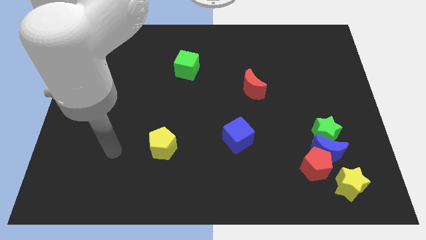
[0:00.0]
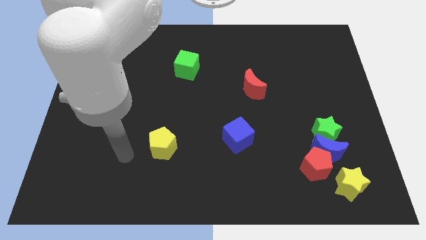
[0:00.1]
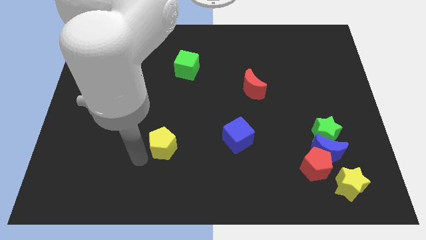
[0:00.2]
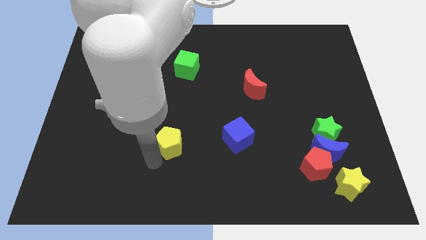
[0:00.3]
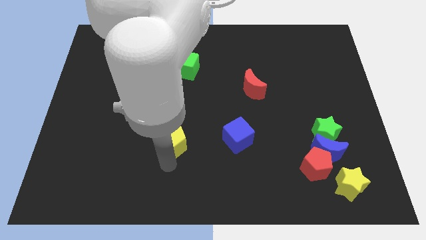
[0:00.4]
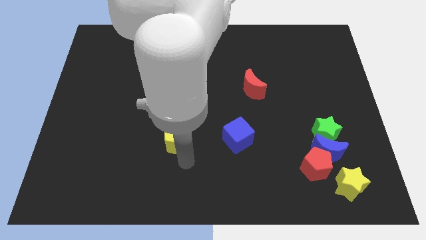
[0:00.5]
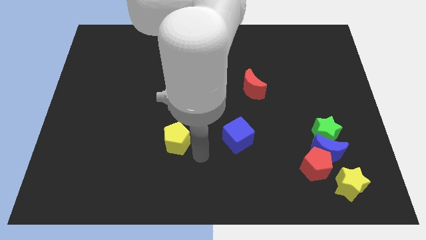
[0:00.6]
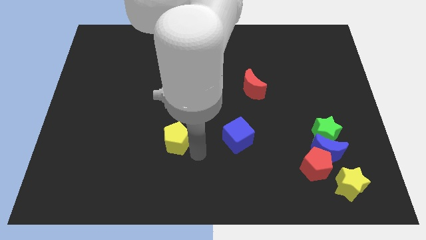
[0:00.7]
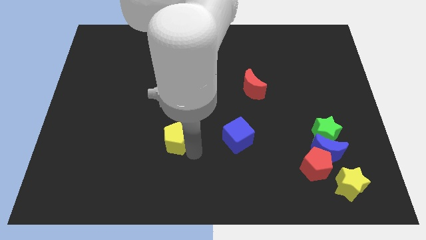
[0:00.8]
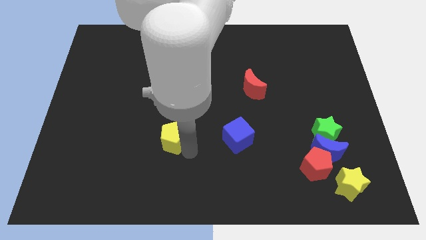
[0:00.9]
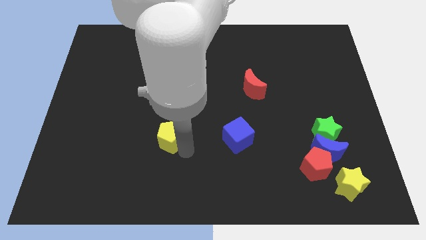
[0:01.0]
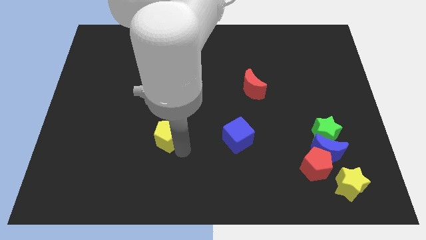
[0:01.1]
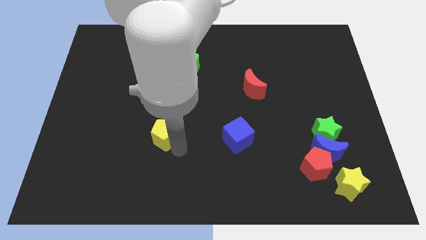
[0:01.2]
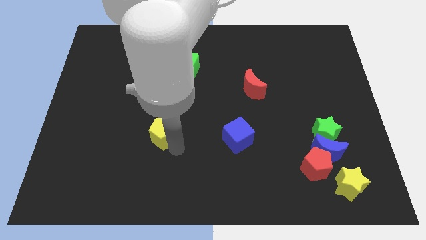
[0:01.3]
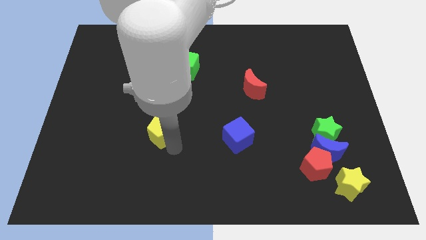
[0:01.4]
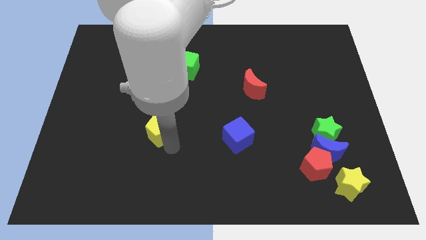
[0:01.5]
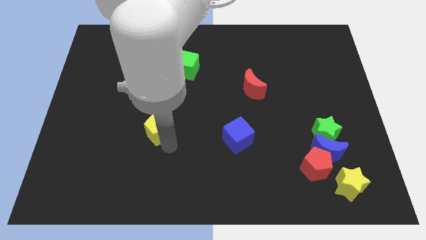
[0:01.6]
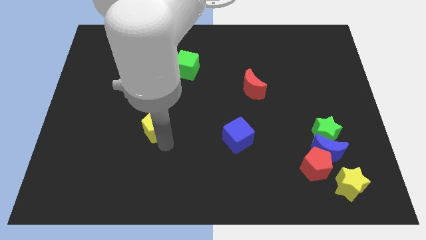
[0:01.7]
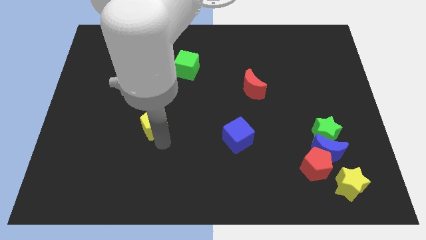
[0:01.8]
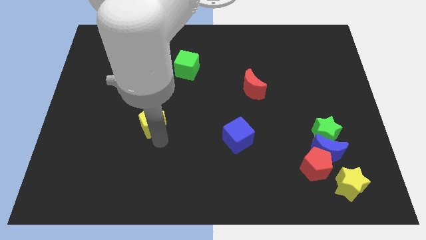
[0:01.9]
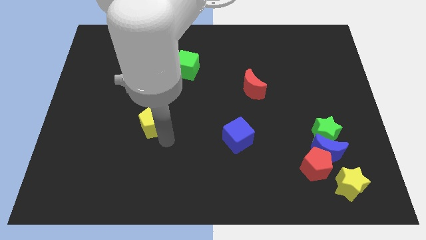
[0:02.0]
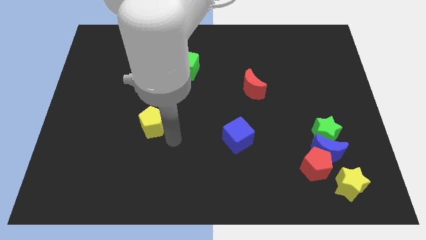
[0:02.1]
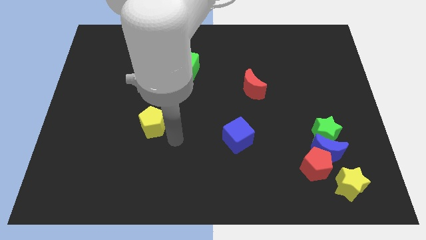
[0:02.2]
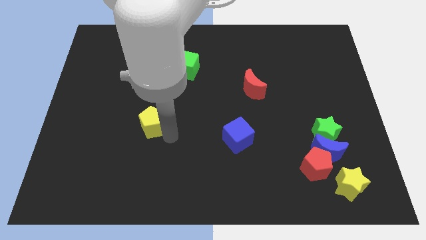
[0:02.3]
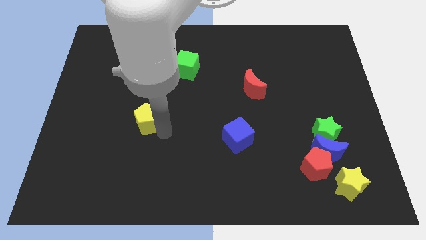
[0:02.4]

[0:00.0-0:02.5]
slightly push the yellow pentagon upwards and left

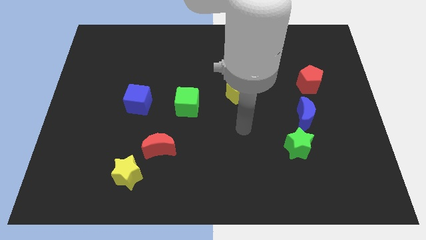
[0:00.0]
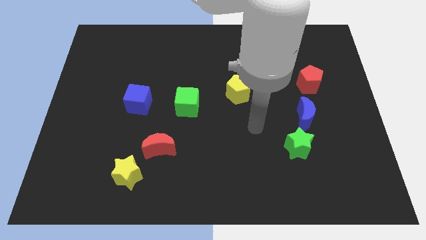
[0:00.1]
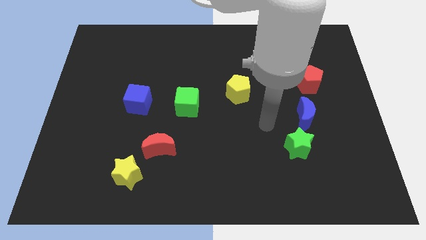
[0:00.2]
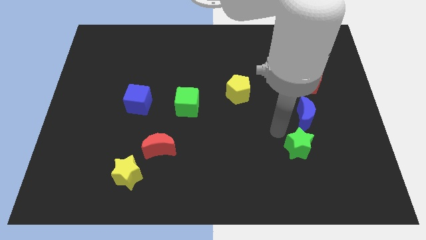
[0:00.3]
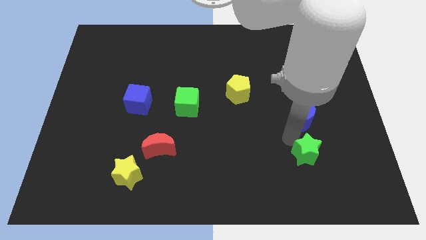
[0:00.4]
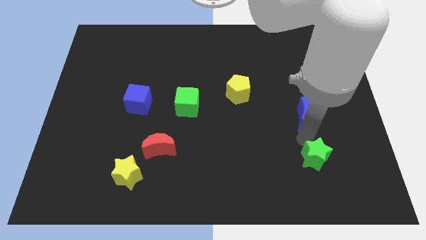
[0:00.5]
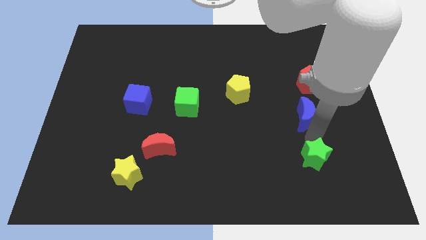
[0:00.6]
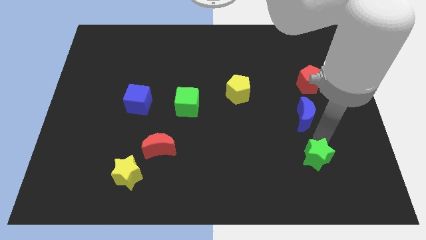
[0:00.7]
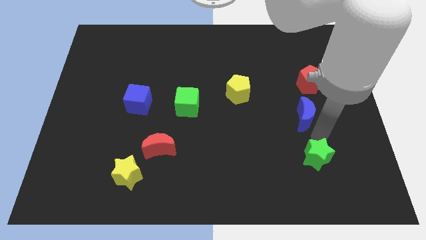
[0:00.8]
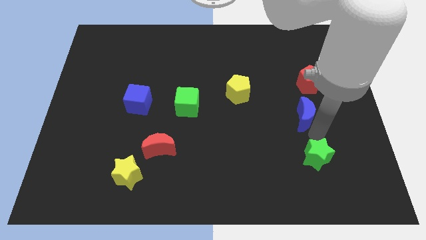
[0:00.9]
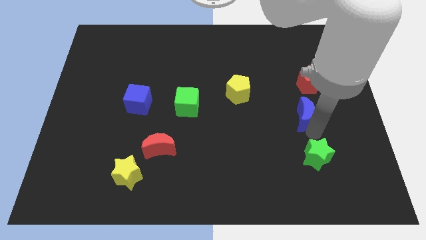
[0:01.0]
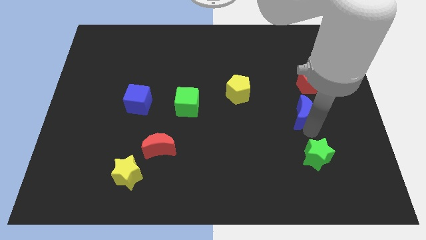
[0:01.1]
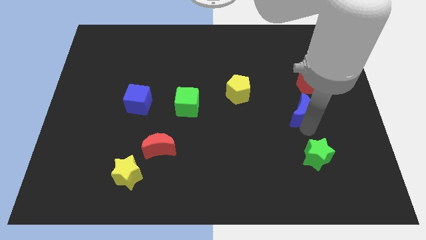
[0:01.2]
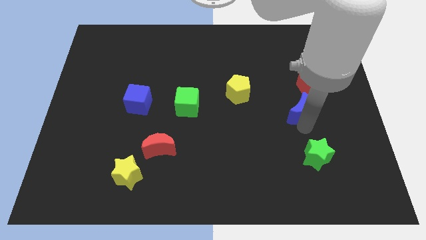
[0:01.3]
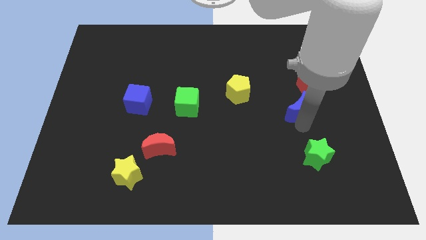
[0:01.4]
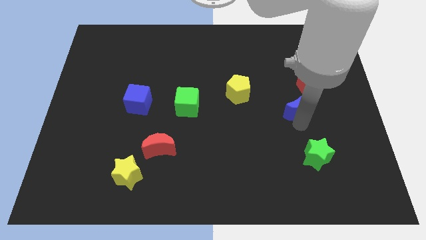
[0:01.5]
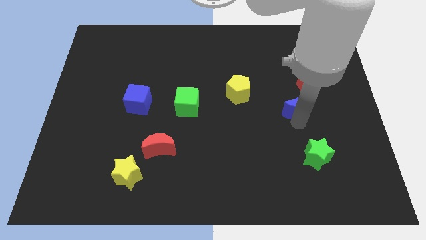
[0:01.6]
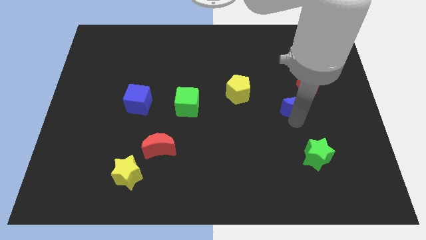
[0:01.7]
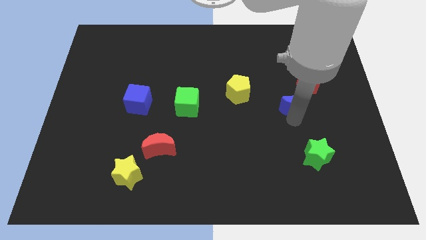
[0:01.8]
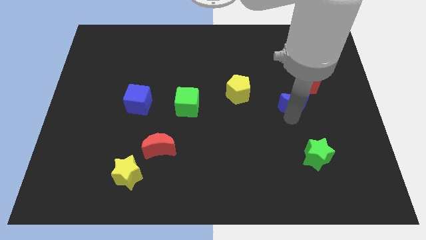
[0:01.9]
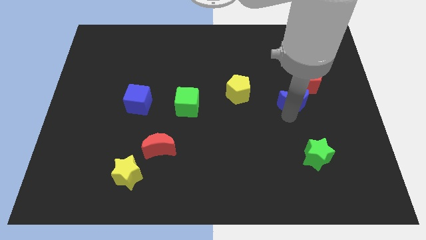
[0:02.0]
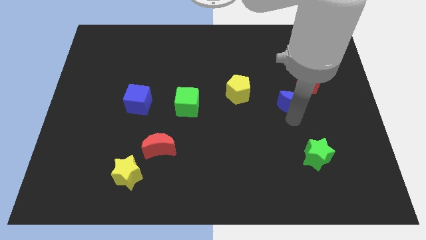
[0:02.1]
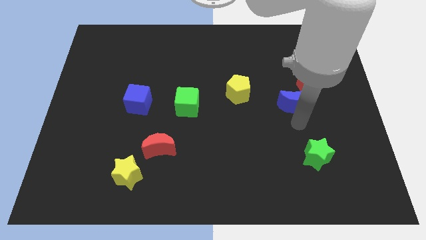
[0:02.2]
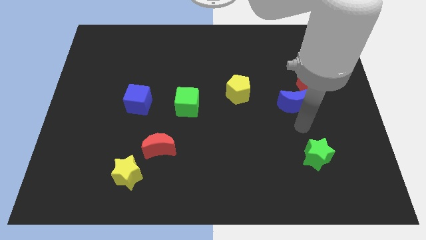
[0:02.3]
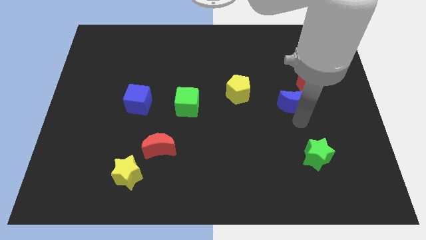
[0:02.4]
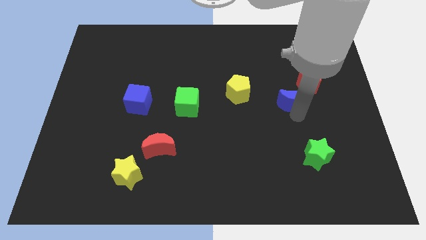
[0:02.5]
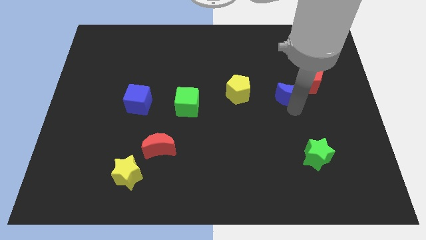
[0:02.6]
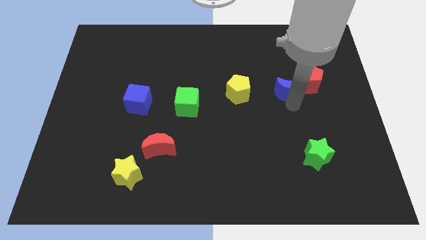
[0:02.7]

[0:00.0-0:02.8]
move the blue moon up and then left slightly

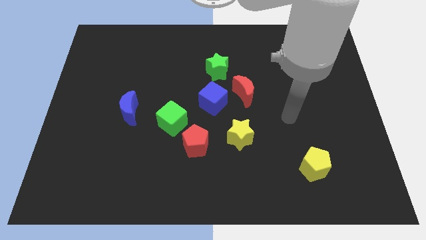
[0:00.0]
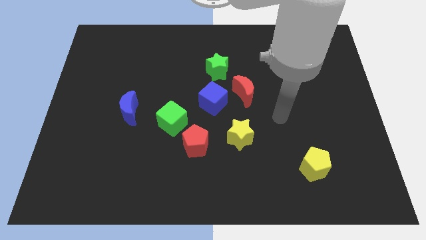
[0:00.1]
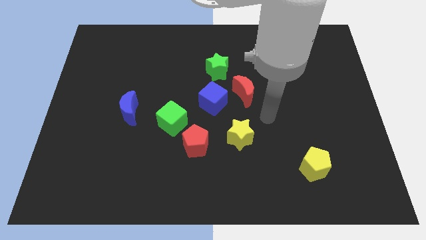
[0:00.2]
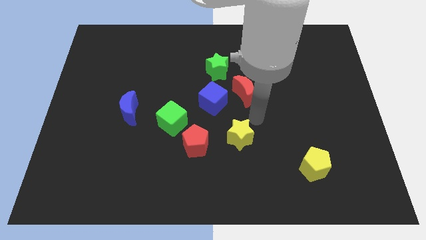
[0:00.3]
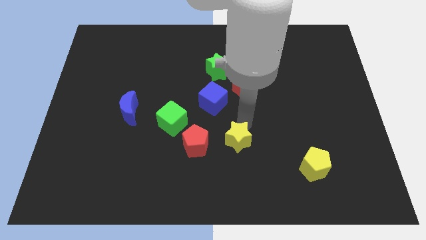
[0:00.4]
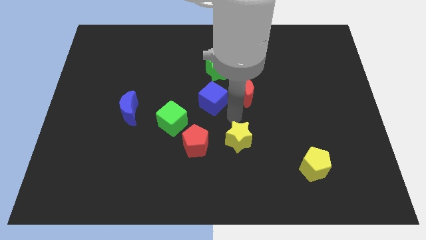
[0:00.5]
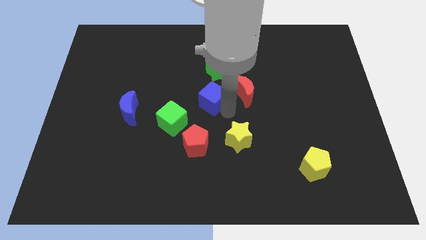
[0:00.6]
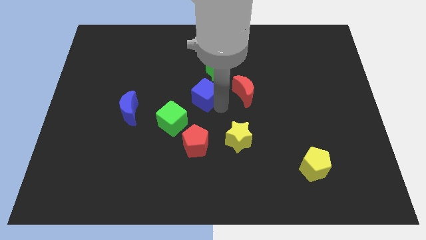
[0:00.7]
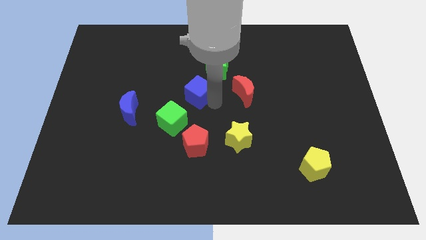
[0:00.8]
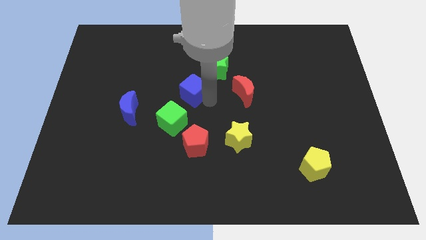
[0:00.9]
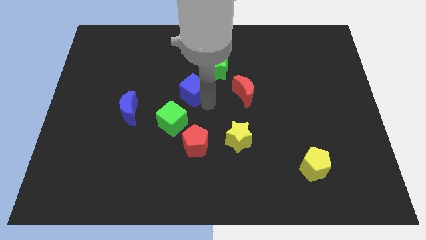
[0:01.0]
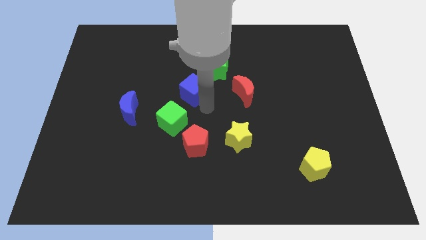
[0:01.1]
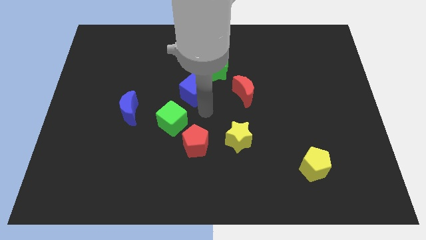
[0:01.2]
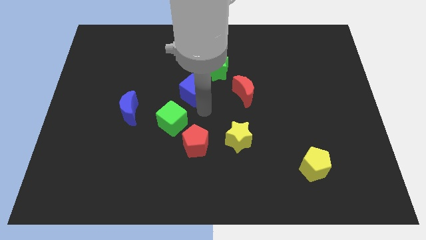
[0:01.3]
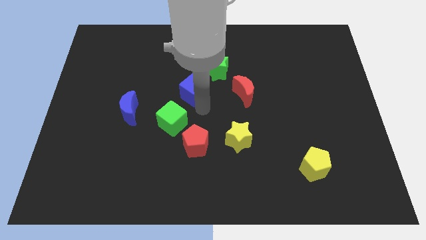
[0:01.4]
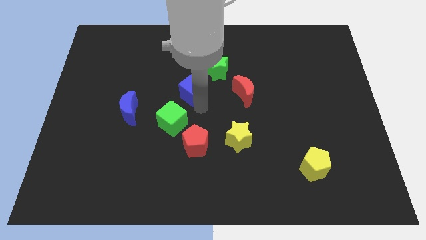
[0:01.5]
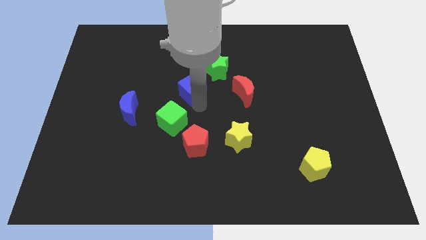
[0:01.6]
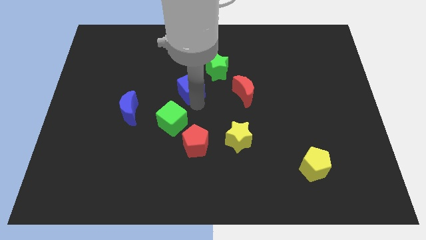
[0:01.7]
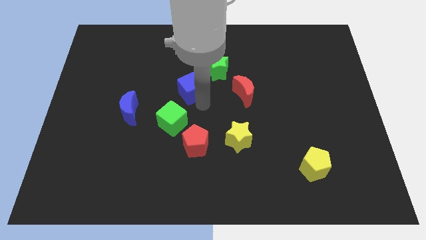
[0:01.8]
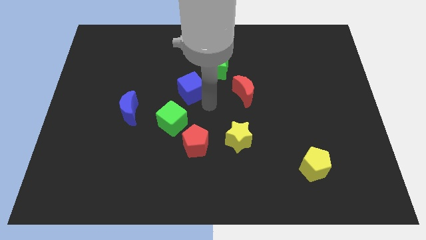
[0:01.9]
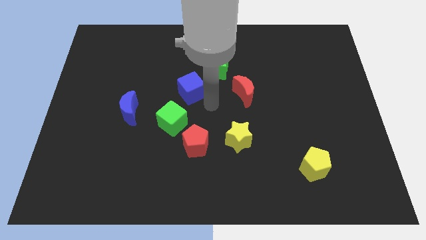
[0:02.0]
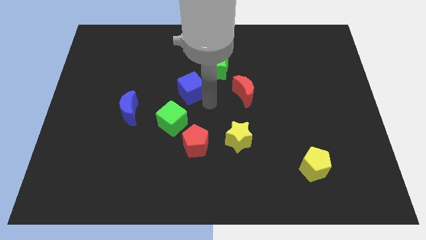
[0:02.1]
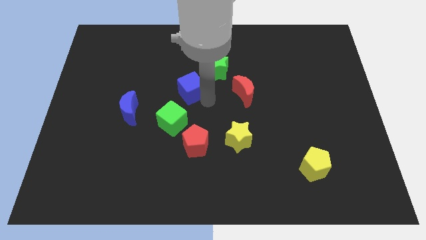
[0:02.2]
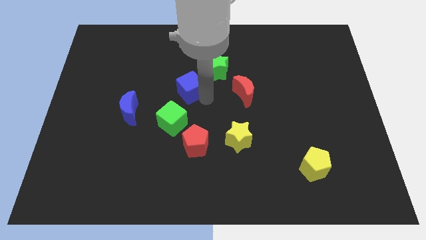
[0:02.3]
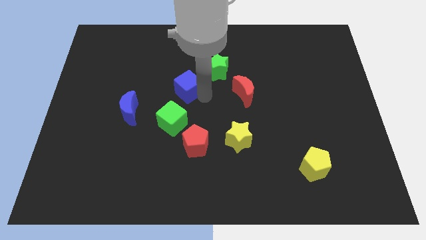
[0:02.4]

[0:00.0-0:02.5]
move the blue cube diagonally up and to the left slightly
